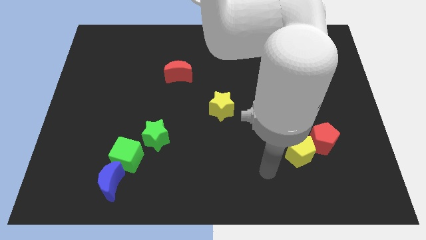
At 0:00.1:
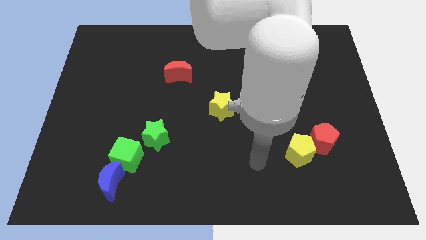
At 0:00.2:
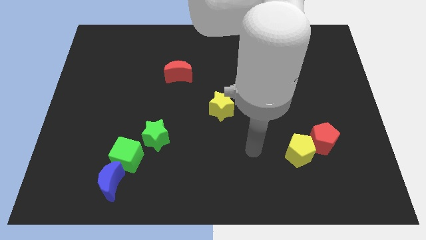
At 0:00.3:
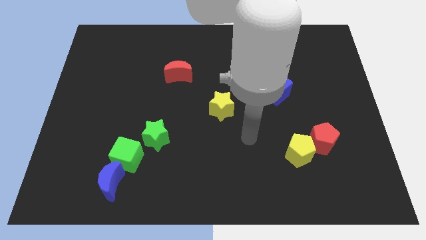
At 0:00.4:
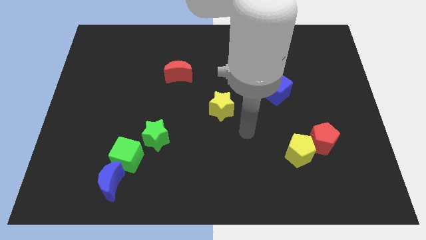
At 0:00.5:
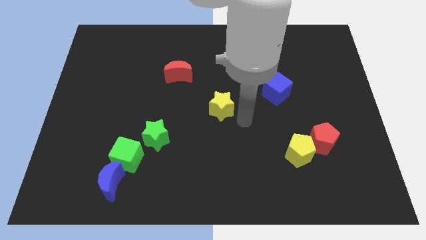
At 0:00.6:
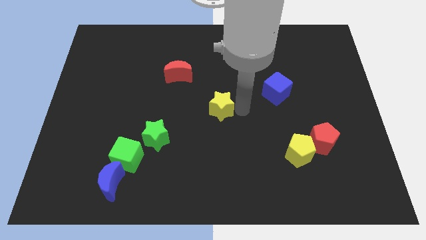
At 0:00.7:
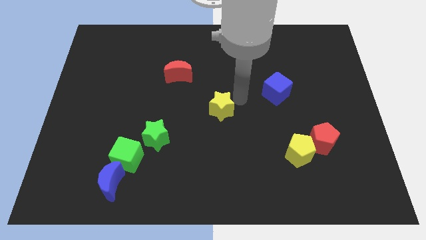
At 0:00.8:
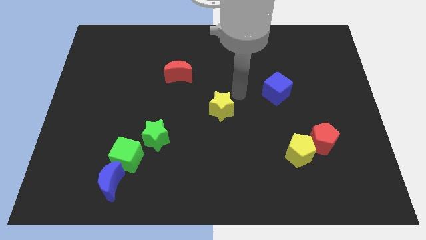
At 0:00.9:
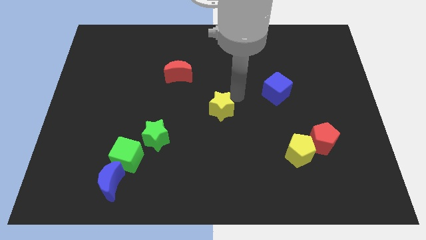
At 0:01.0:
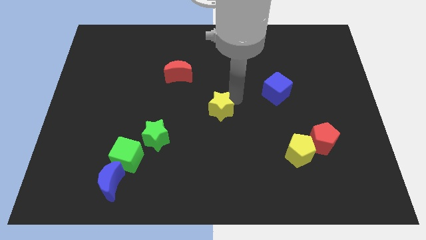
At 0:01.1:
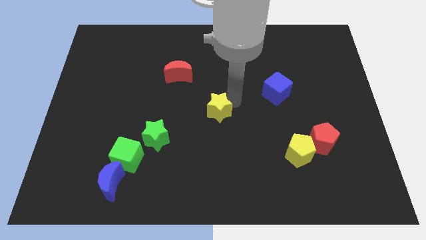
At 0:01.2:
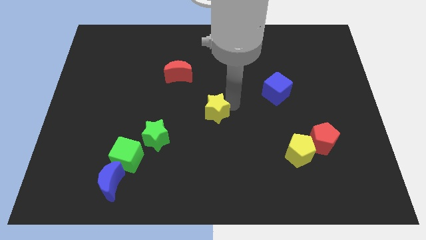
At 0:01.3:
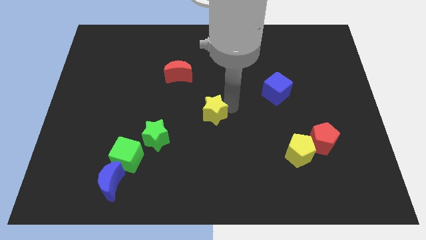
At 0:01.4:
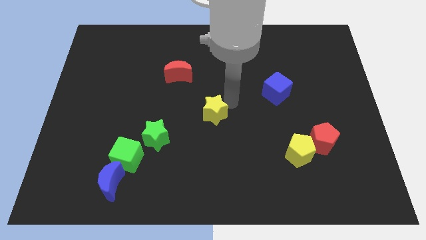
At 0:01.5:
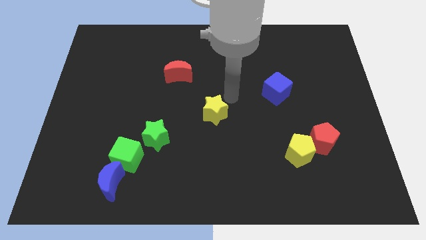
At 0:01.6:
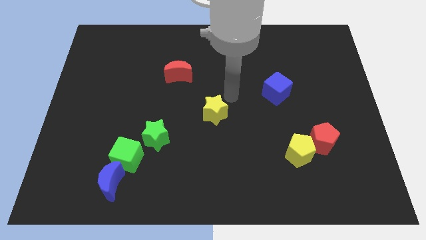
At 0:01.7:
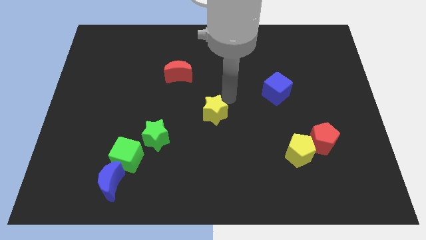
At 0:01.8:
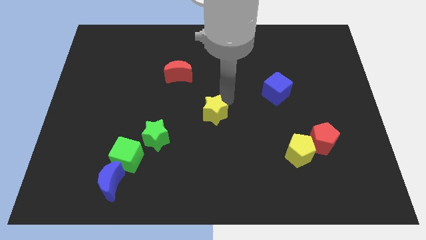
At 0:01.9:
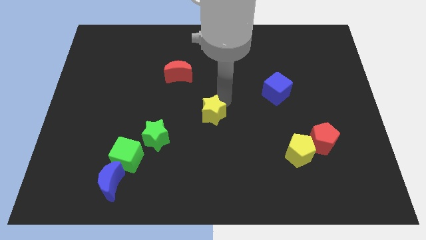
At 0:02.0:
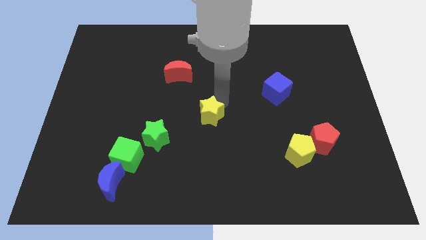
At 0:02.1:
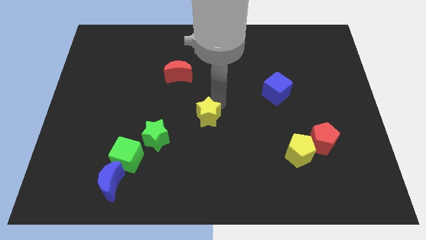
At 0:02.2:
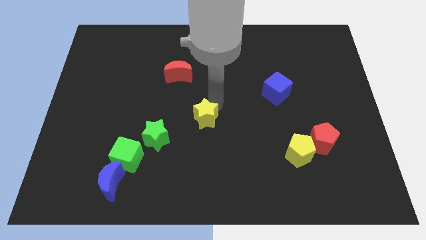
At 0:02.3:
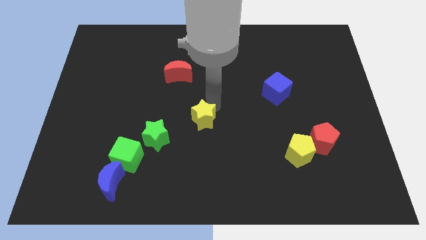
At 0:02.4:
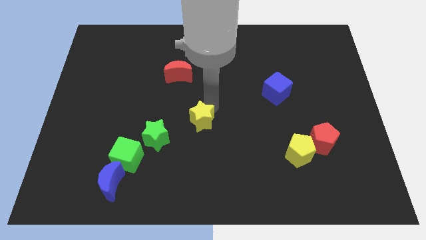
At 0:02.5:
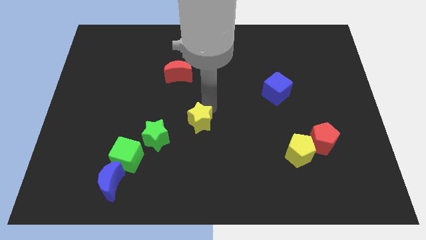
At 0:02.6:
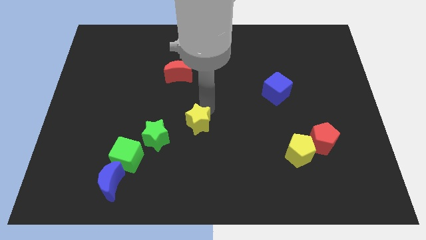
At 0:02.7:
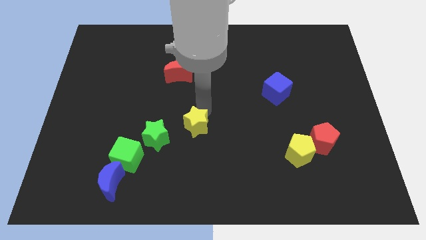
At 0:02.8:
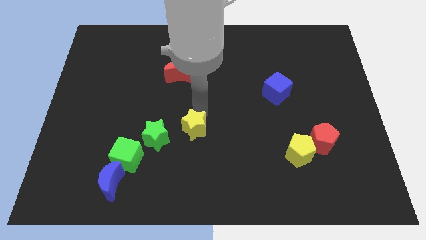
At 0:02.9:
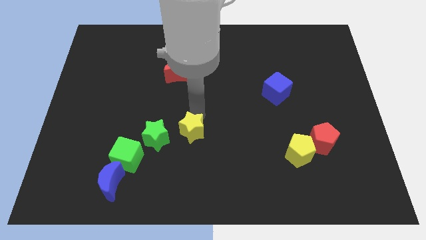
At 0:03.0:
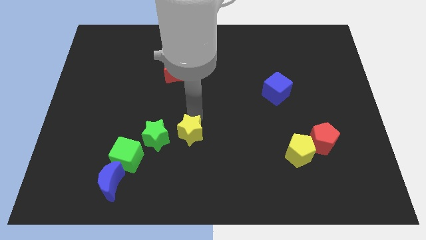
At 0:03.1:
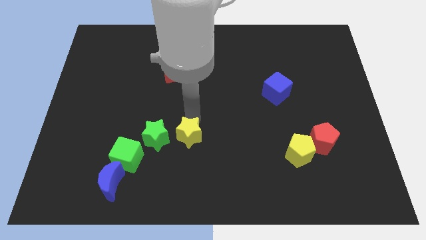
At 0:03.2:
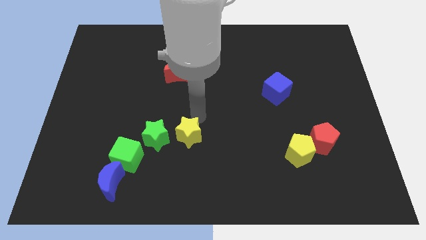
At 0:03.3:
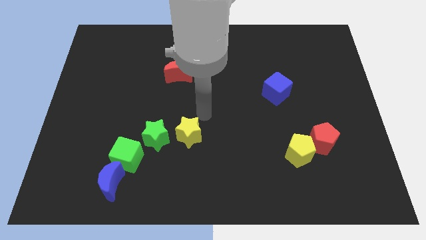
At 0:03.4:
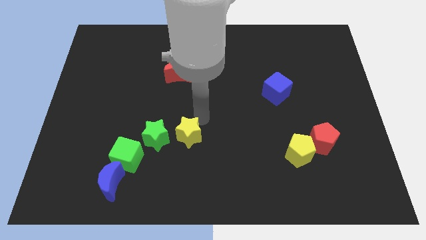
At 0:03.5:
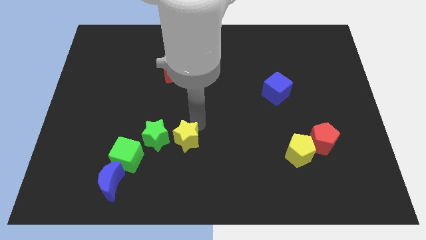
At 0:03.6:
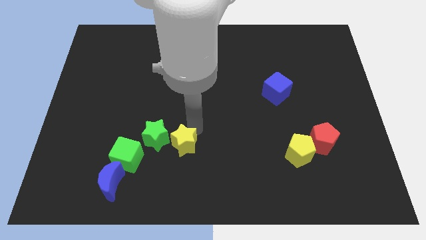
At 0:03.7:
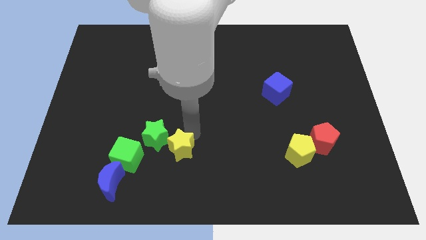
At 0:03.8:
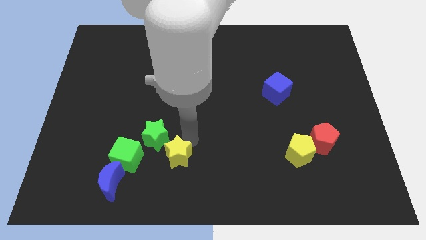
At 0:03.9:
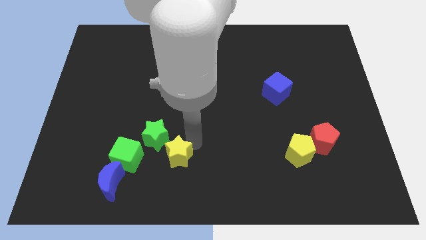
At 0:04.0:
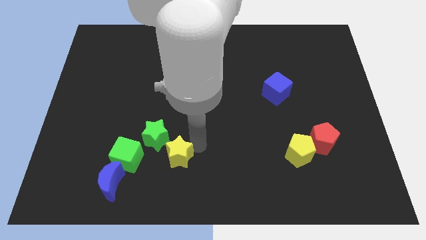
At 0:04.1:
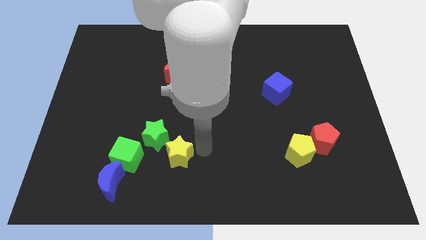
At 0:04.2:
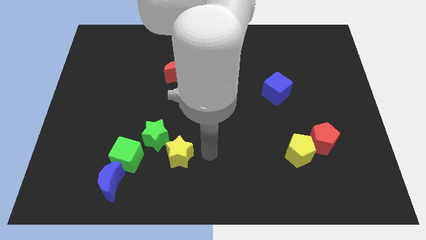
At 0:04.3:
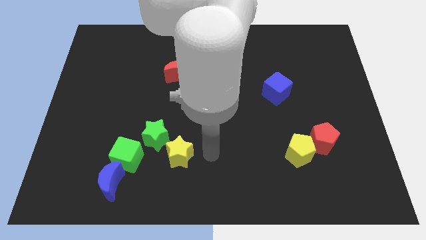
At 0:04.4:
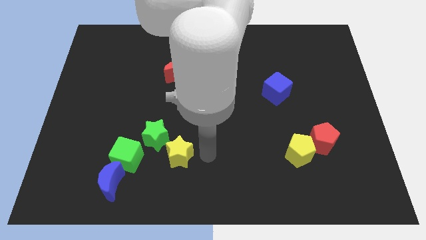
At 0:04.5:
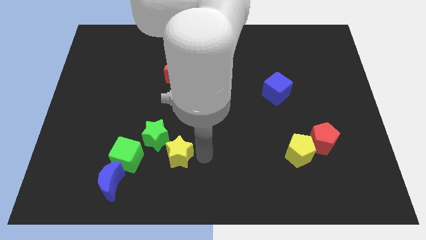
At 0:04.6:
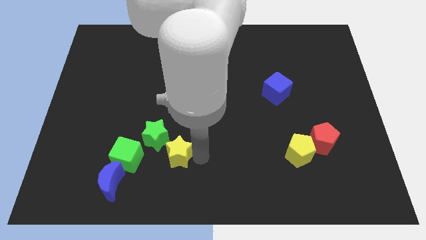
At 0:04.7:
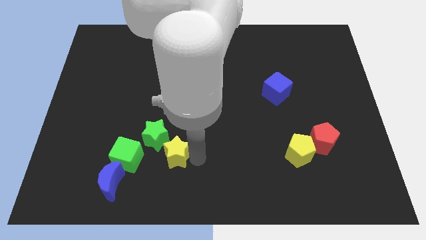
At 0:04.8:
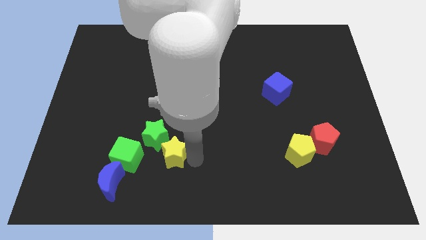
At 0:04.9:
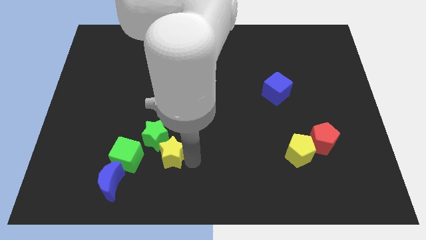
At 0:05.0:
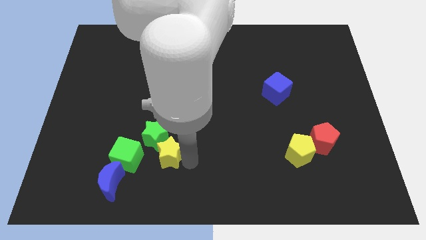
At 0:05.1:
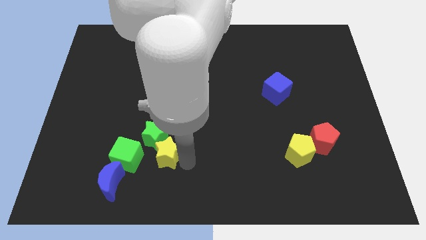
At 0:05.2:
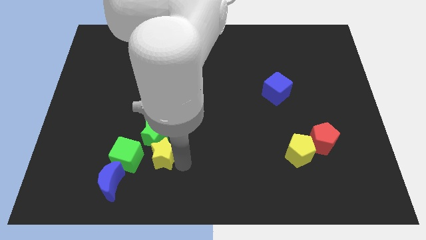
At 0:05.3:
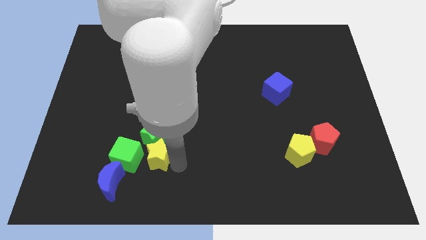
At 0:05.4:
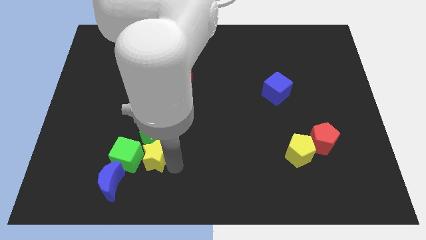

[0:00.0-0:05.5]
move the yellow star to the green cube

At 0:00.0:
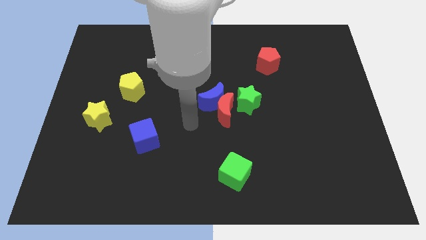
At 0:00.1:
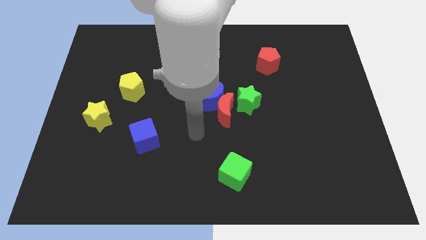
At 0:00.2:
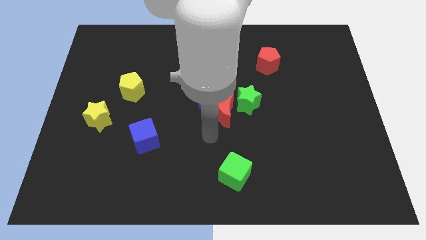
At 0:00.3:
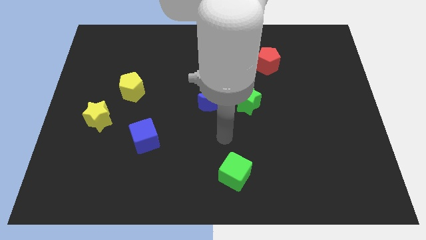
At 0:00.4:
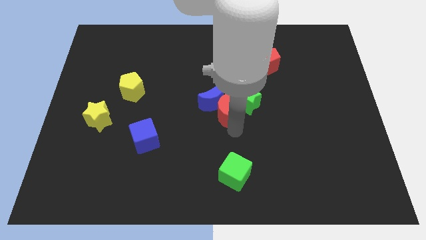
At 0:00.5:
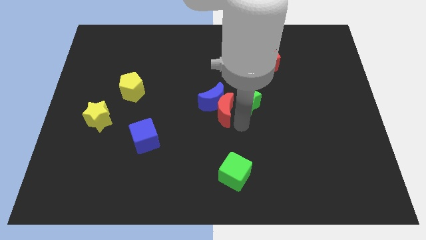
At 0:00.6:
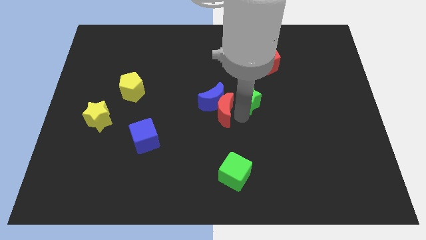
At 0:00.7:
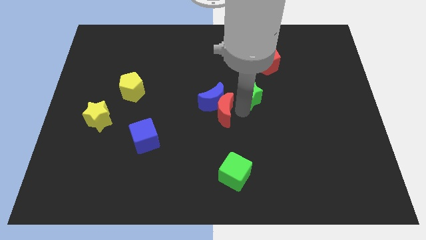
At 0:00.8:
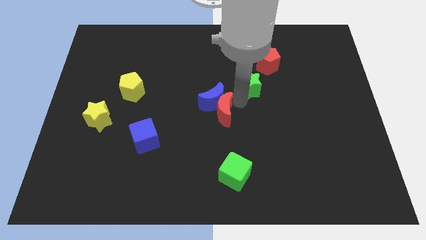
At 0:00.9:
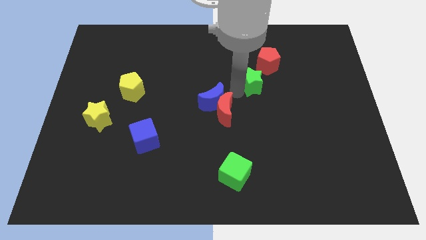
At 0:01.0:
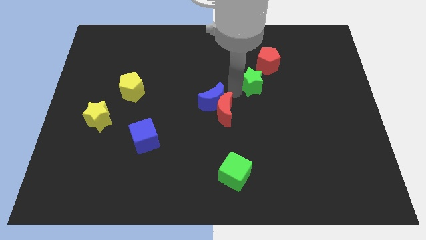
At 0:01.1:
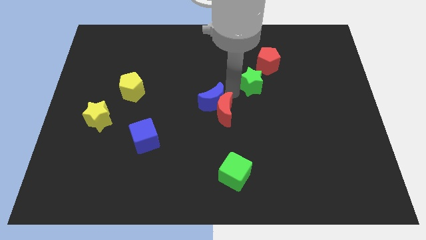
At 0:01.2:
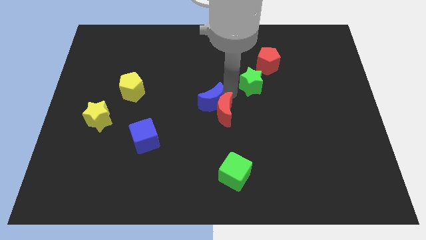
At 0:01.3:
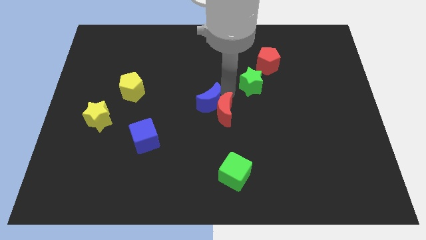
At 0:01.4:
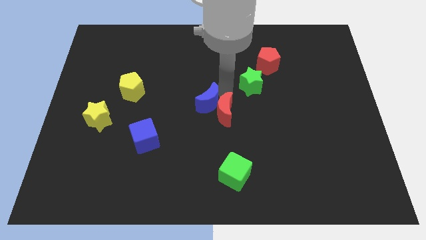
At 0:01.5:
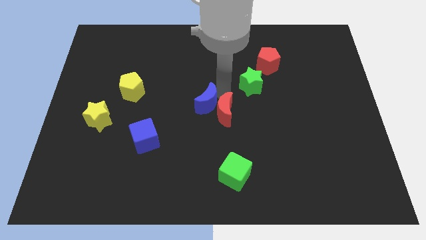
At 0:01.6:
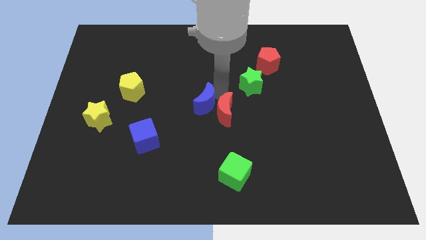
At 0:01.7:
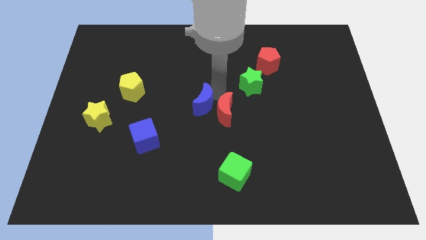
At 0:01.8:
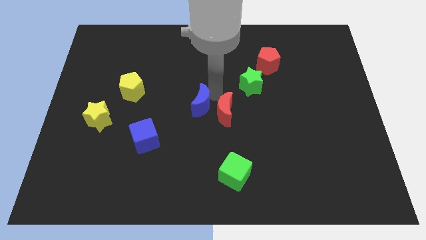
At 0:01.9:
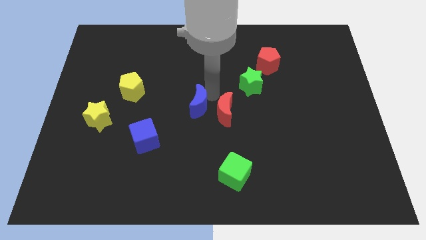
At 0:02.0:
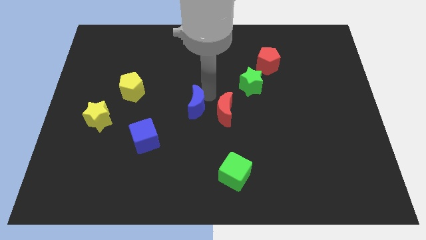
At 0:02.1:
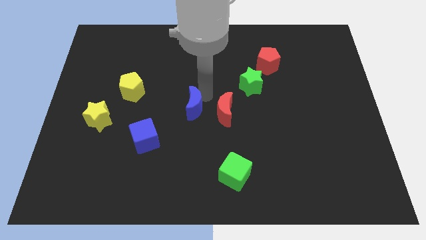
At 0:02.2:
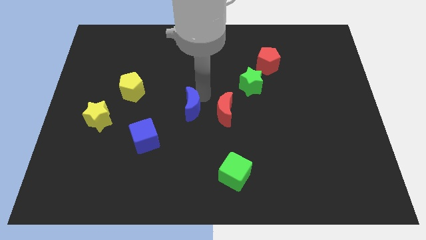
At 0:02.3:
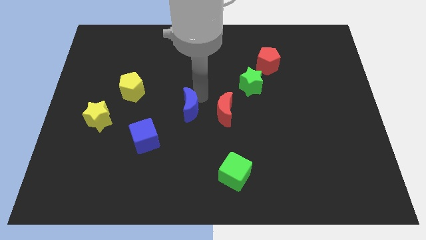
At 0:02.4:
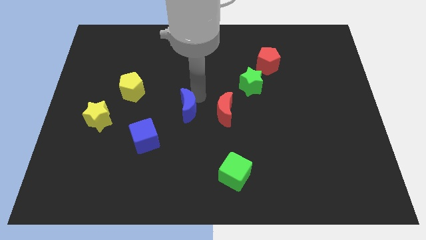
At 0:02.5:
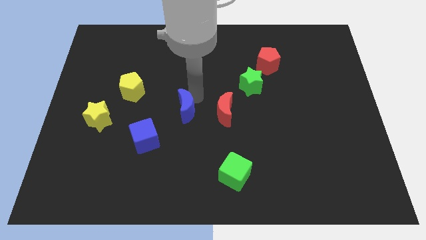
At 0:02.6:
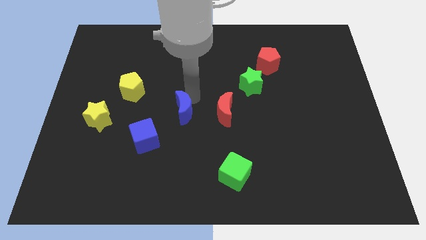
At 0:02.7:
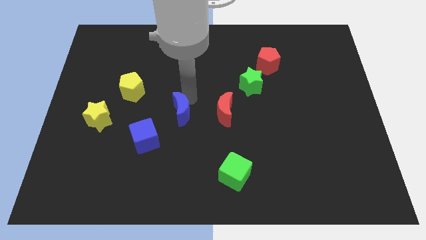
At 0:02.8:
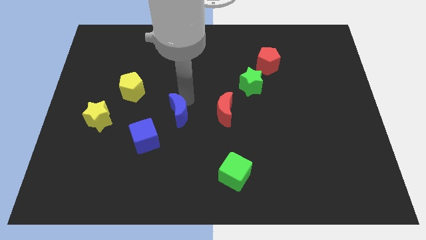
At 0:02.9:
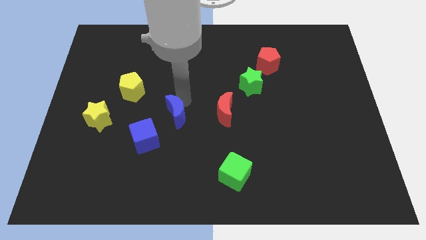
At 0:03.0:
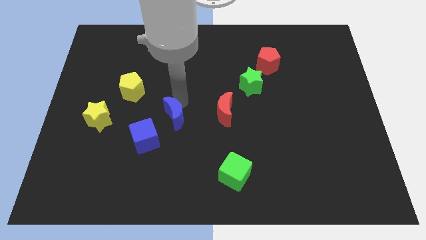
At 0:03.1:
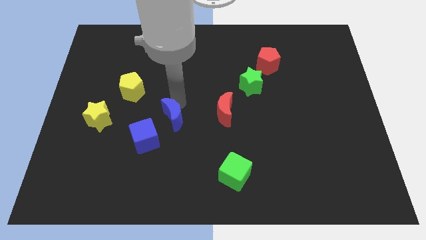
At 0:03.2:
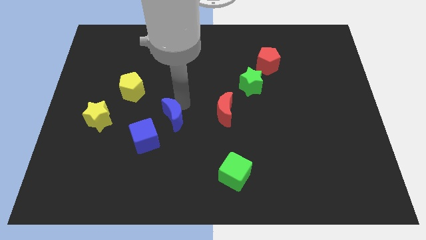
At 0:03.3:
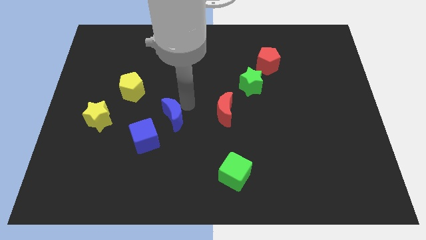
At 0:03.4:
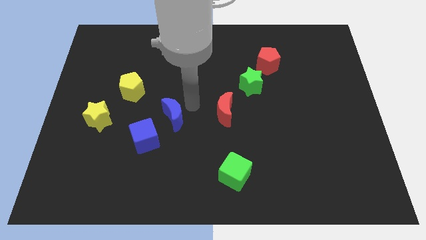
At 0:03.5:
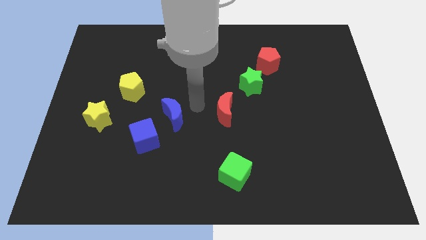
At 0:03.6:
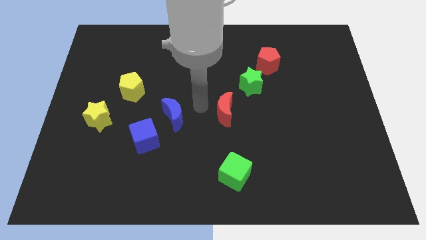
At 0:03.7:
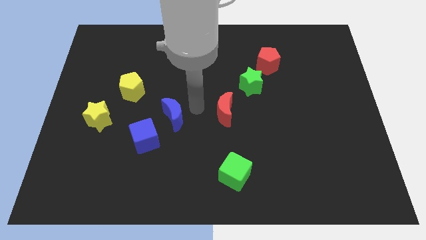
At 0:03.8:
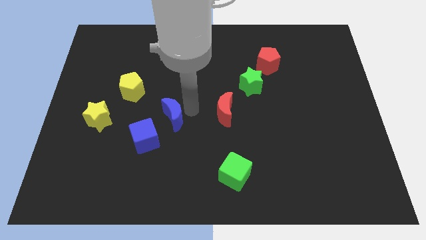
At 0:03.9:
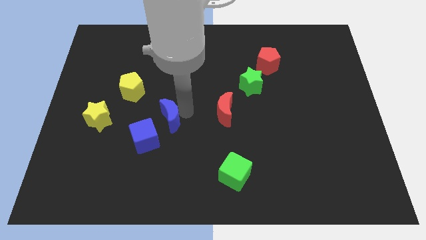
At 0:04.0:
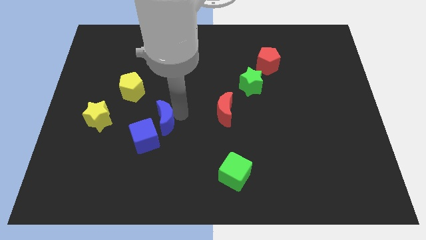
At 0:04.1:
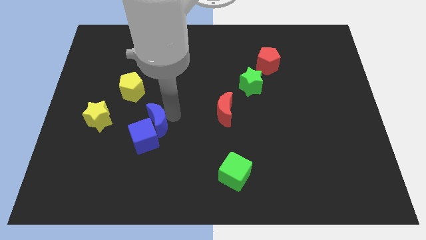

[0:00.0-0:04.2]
put the blue moon towards the blue cube
